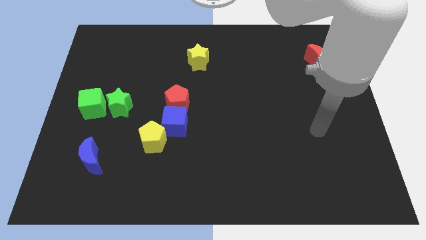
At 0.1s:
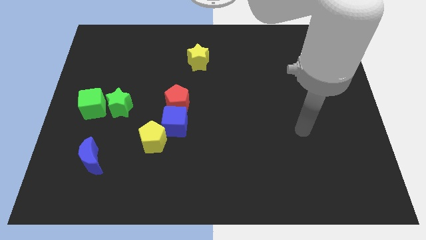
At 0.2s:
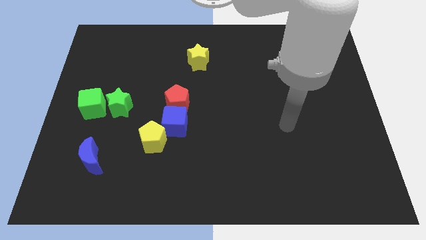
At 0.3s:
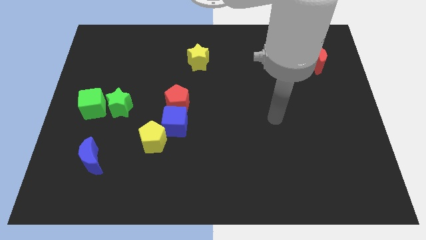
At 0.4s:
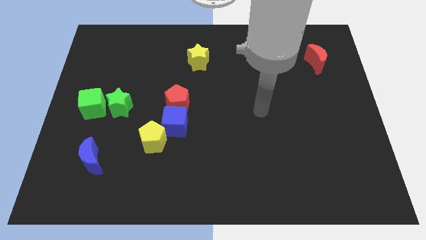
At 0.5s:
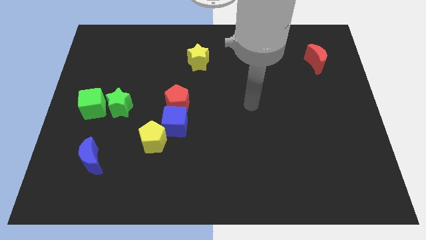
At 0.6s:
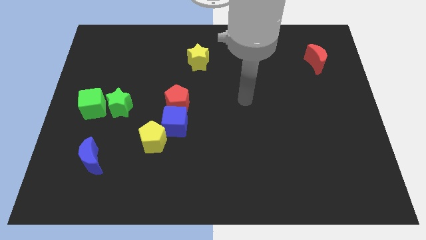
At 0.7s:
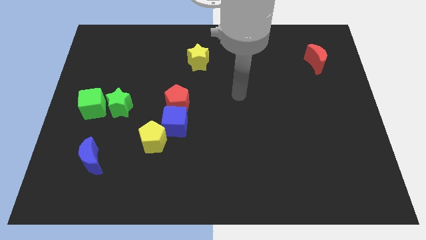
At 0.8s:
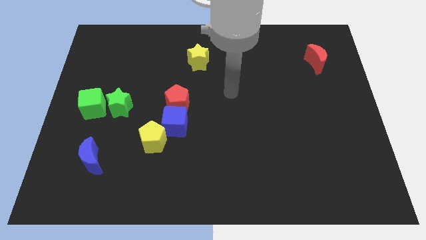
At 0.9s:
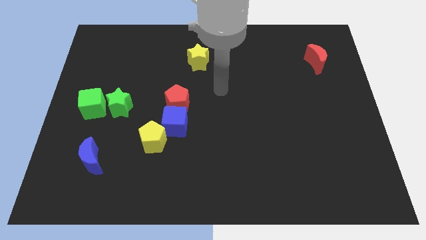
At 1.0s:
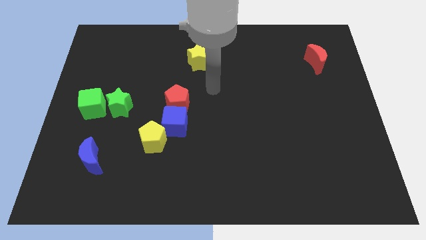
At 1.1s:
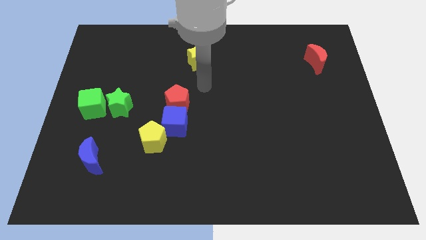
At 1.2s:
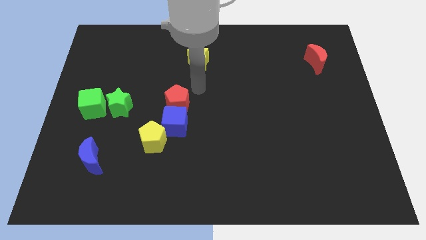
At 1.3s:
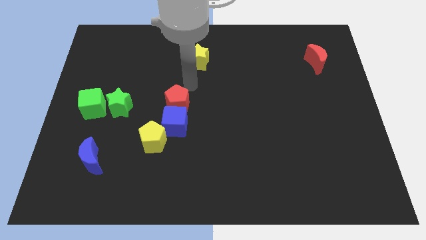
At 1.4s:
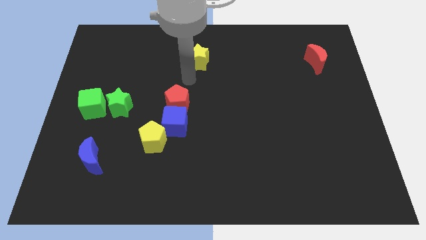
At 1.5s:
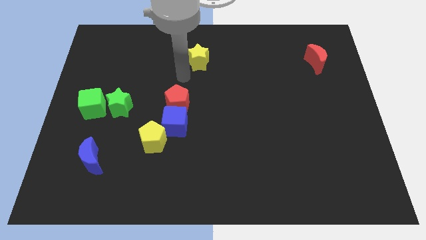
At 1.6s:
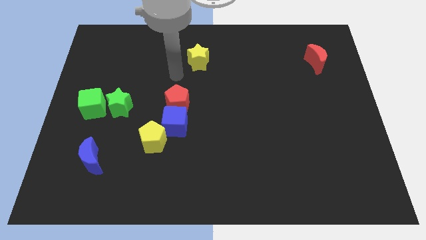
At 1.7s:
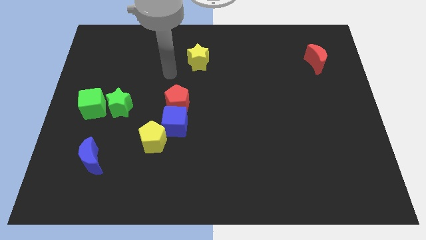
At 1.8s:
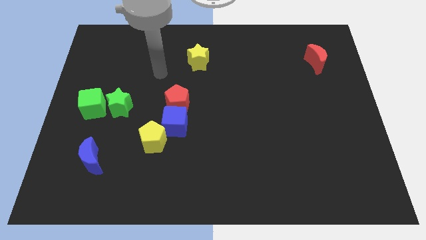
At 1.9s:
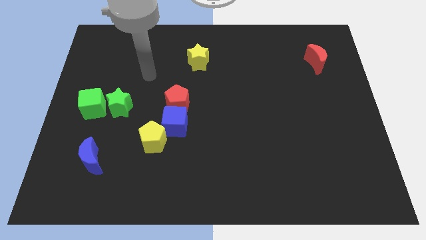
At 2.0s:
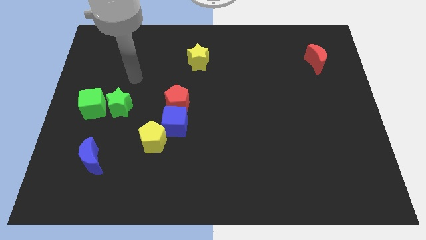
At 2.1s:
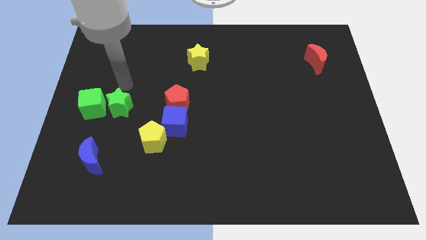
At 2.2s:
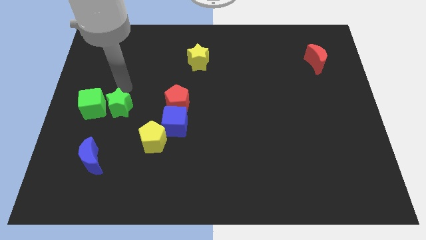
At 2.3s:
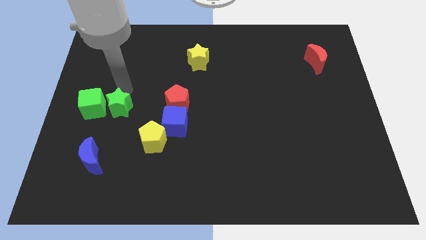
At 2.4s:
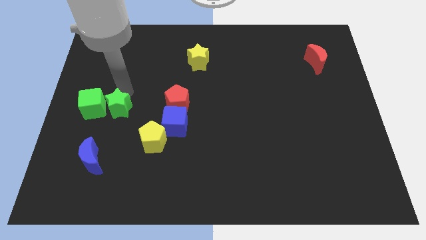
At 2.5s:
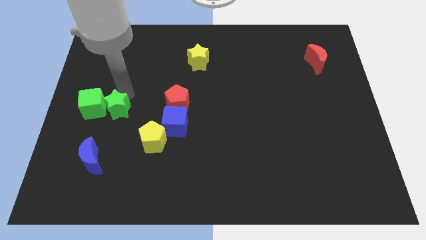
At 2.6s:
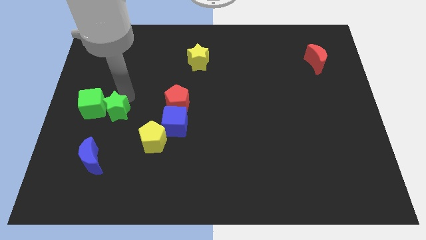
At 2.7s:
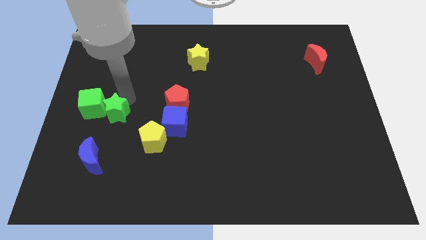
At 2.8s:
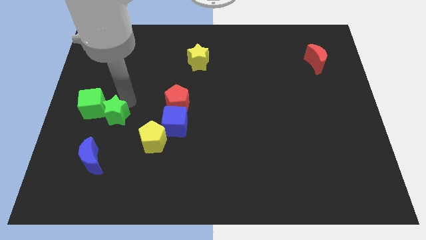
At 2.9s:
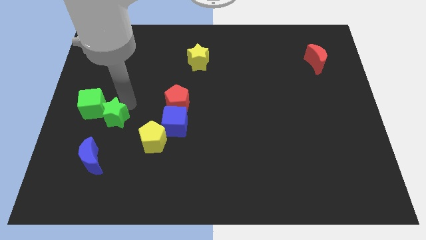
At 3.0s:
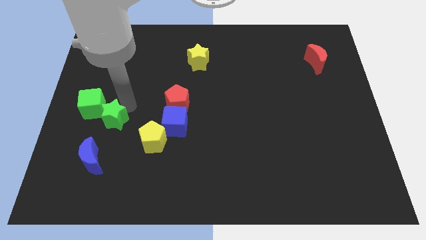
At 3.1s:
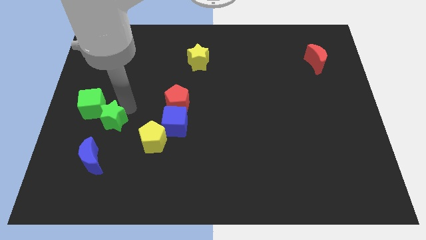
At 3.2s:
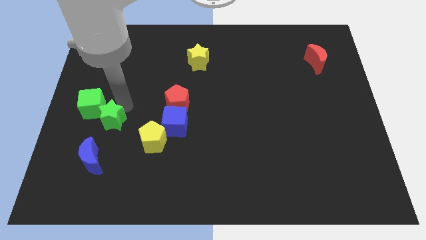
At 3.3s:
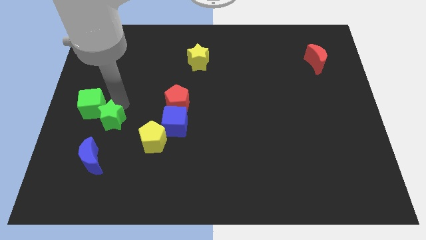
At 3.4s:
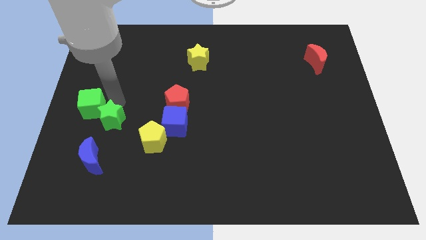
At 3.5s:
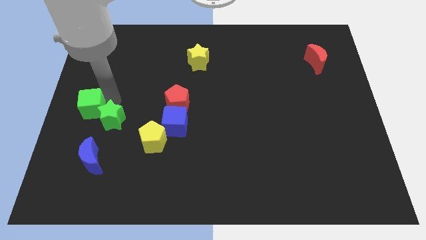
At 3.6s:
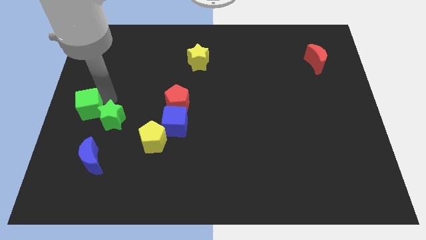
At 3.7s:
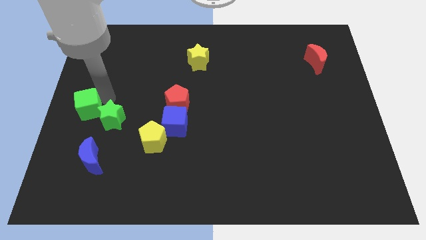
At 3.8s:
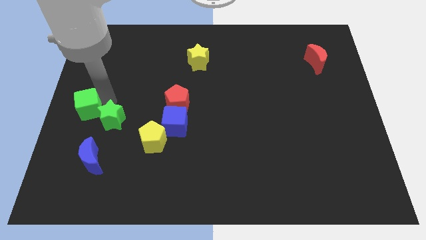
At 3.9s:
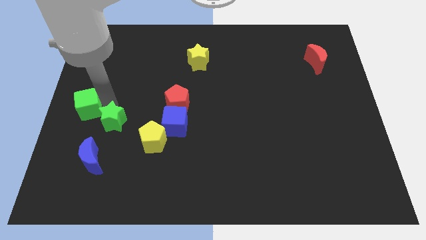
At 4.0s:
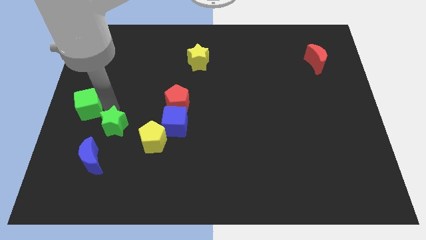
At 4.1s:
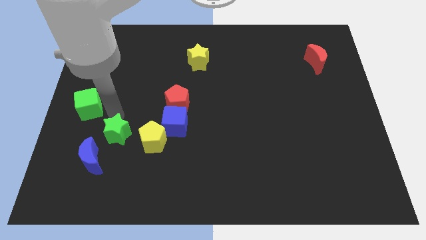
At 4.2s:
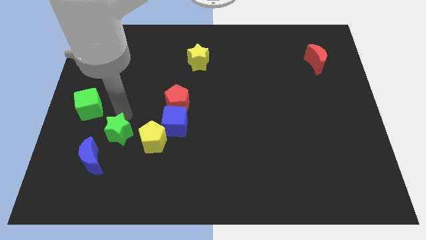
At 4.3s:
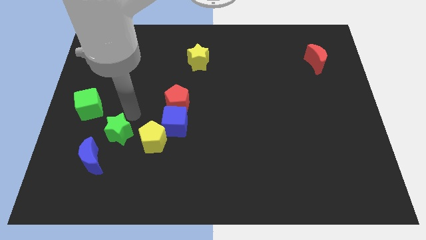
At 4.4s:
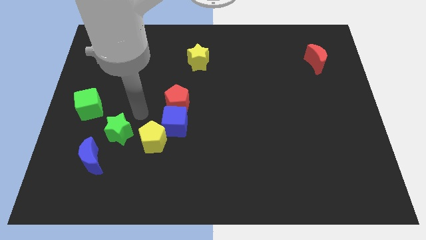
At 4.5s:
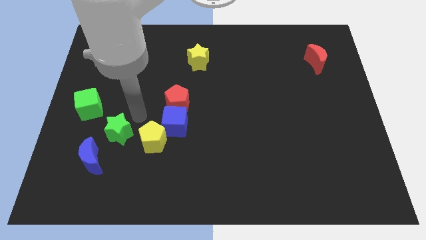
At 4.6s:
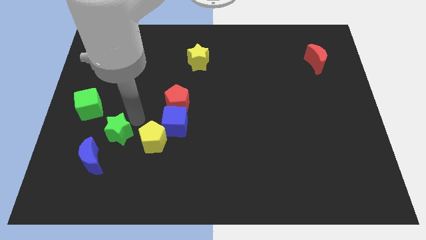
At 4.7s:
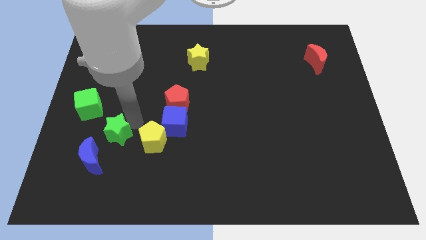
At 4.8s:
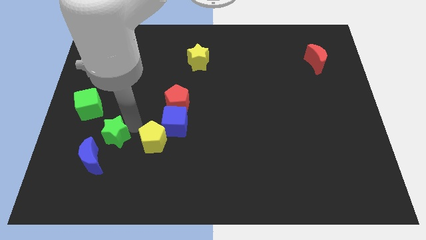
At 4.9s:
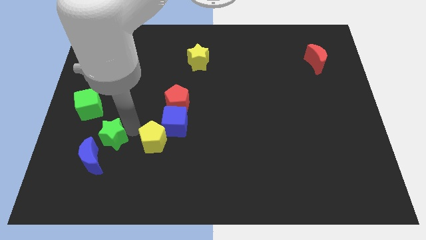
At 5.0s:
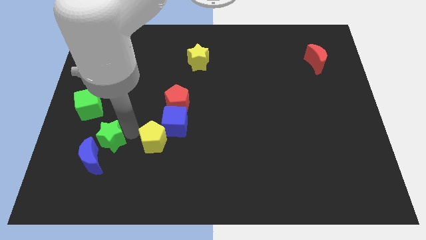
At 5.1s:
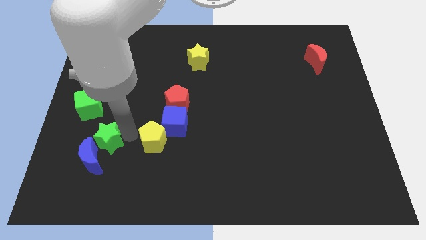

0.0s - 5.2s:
slide the green star close to the blue moon

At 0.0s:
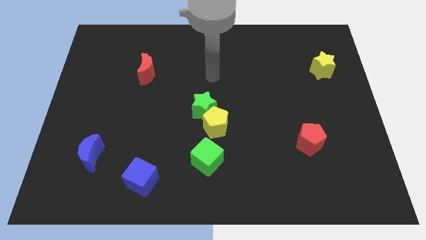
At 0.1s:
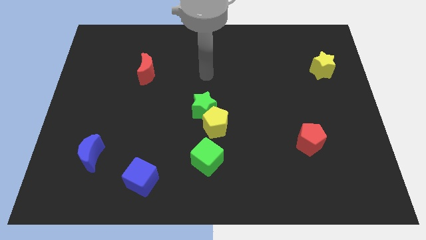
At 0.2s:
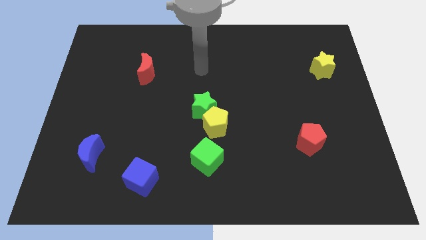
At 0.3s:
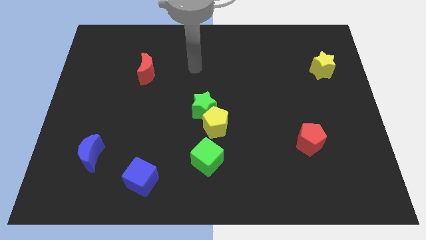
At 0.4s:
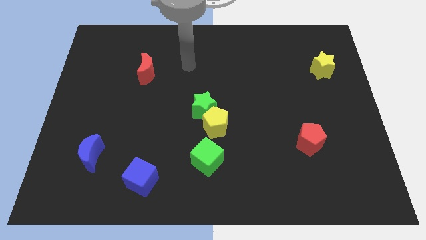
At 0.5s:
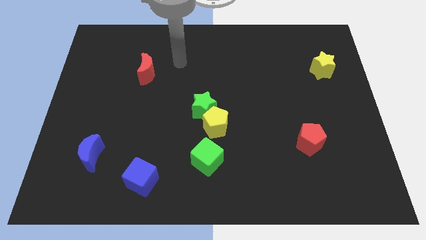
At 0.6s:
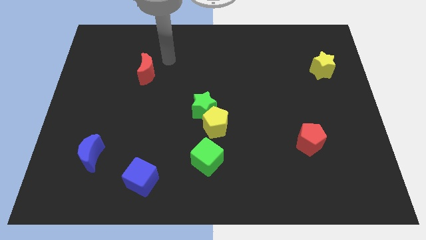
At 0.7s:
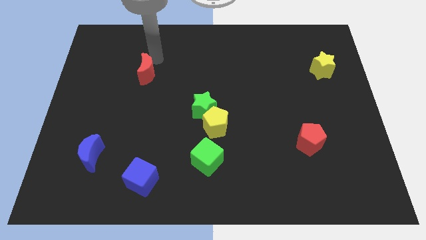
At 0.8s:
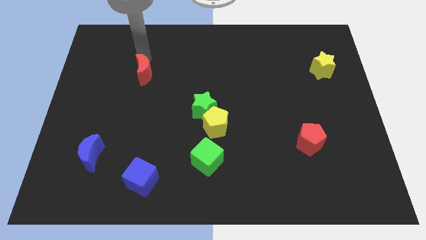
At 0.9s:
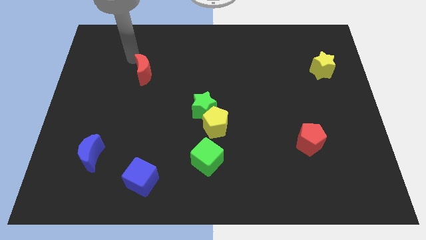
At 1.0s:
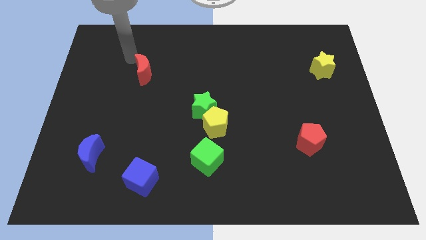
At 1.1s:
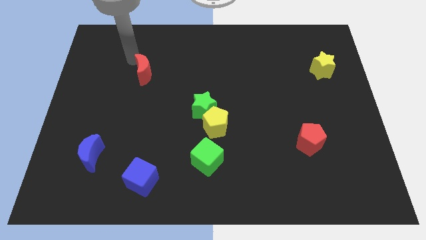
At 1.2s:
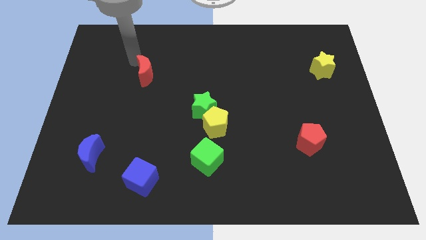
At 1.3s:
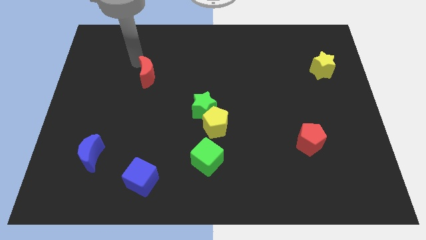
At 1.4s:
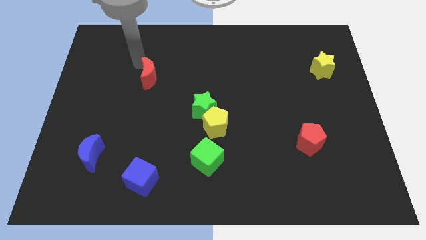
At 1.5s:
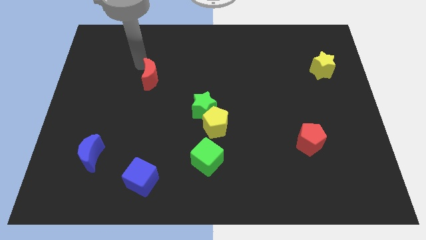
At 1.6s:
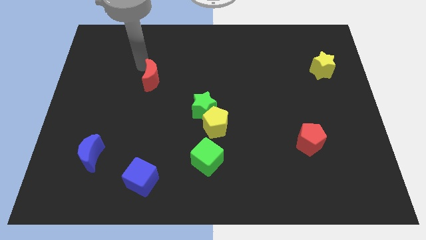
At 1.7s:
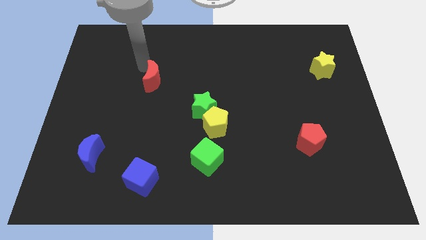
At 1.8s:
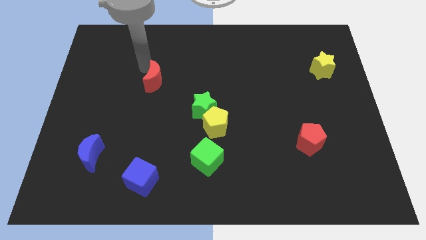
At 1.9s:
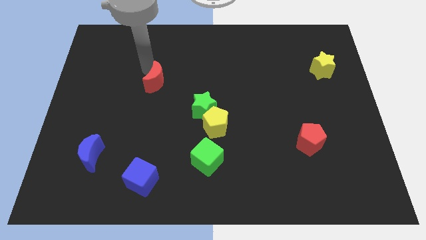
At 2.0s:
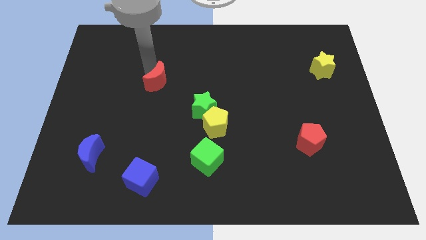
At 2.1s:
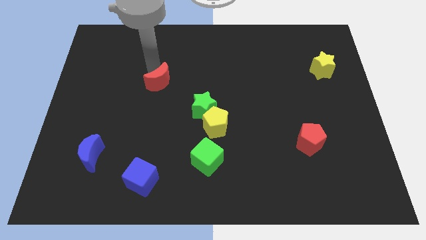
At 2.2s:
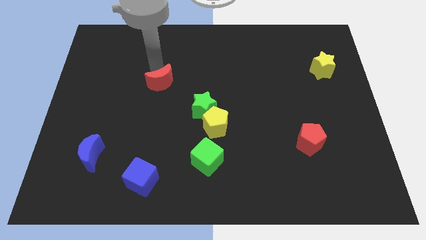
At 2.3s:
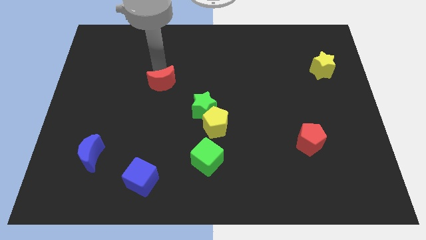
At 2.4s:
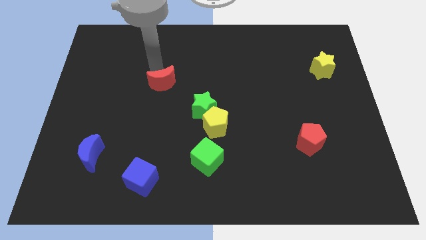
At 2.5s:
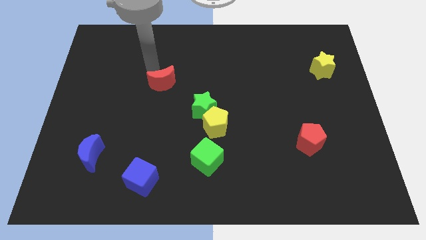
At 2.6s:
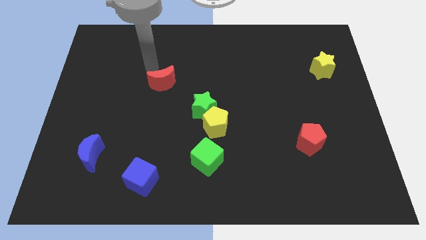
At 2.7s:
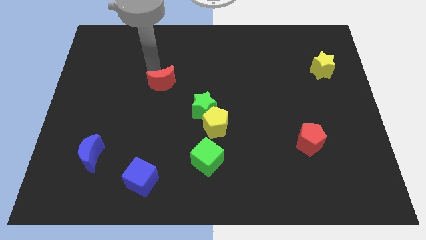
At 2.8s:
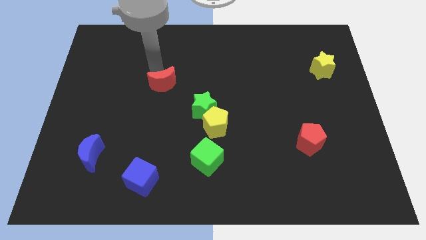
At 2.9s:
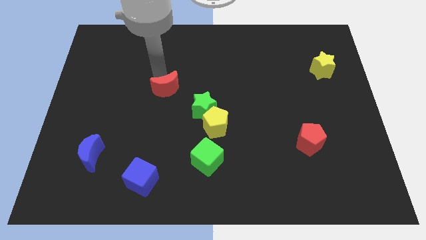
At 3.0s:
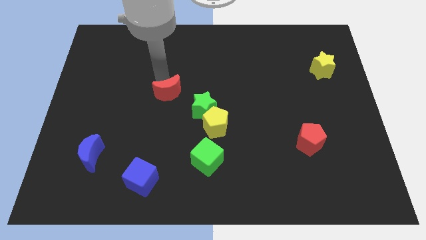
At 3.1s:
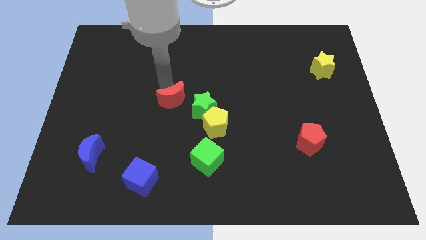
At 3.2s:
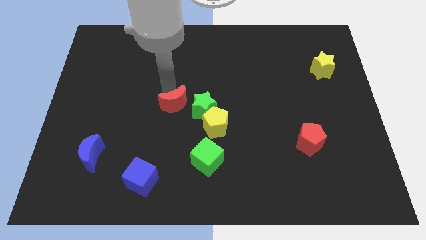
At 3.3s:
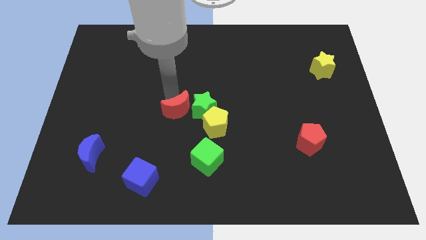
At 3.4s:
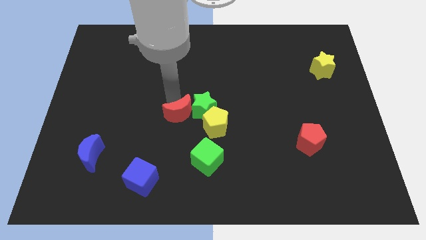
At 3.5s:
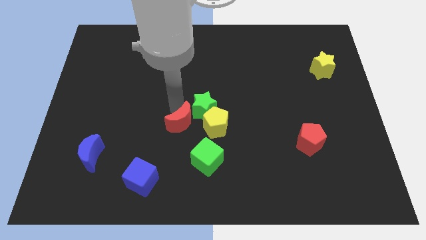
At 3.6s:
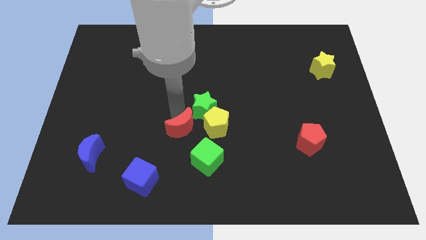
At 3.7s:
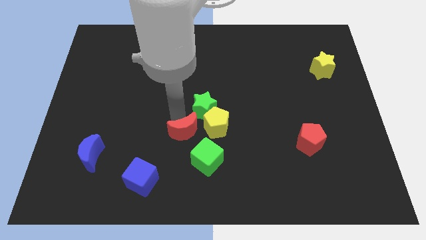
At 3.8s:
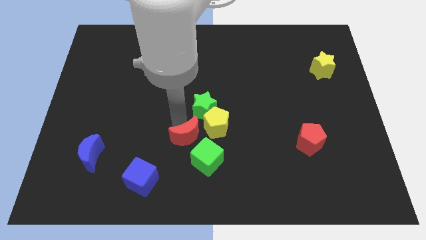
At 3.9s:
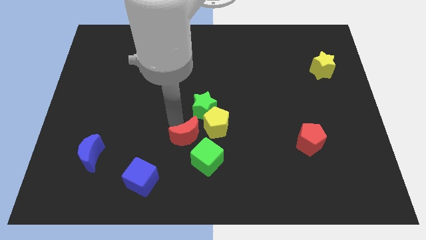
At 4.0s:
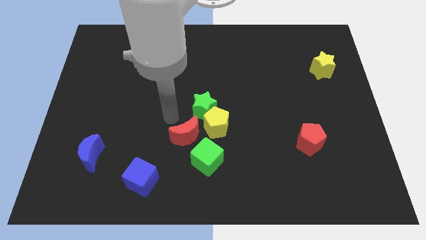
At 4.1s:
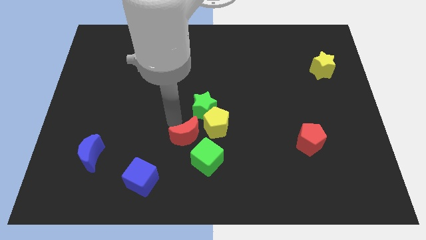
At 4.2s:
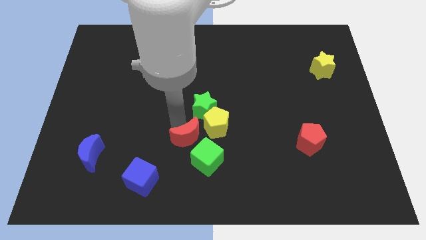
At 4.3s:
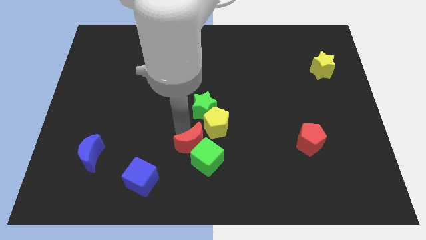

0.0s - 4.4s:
put the red moon next to the green cube
